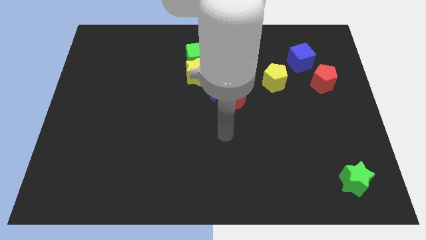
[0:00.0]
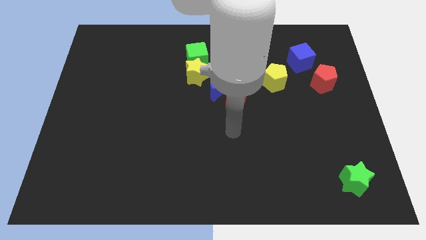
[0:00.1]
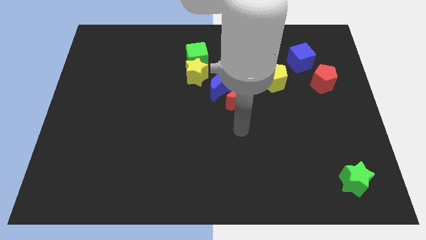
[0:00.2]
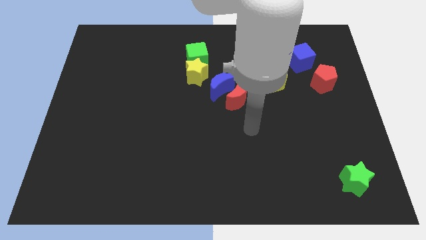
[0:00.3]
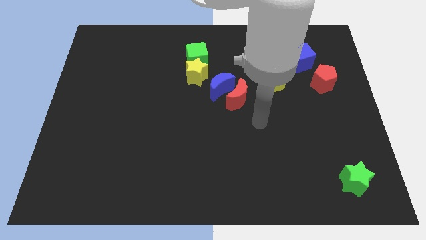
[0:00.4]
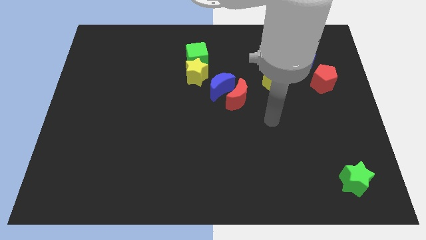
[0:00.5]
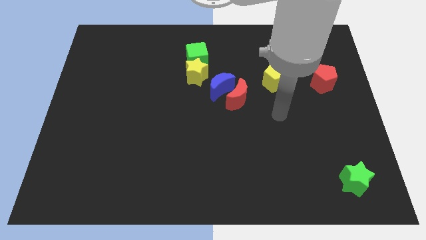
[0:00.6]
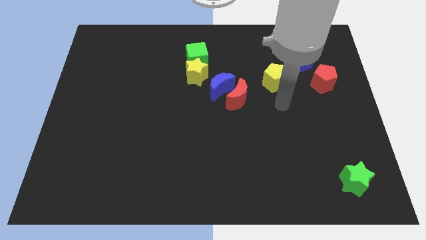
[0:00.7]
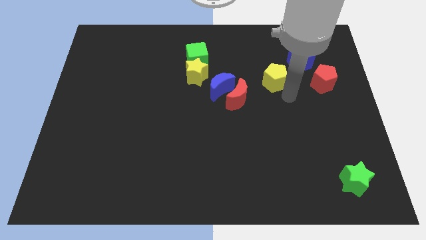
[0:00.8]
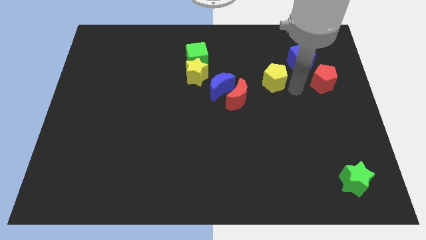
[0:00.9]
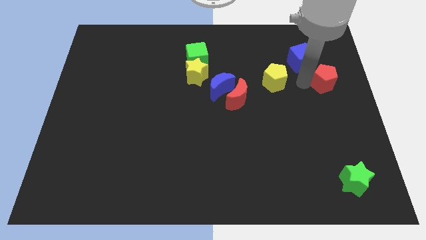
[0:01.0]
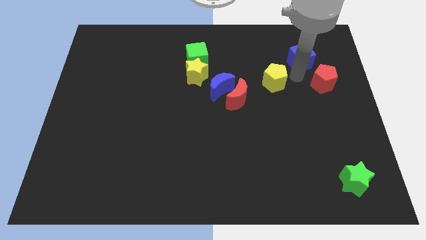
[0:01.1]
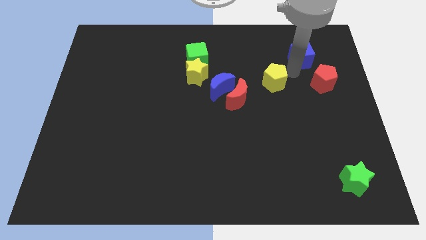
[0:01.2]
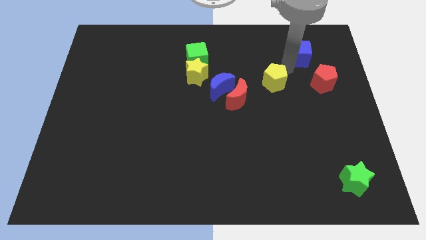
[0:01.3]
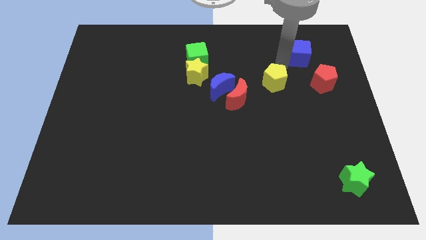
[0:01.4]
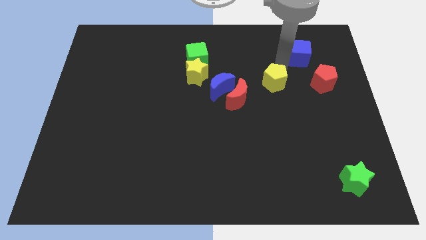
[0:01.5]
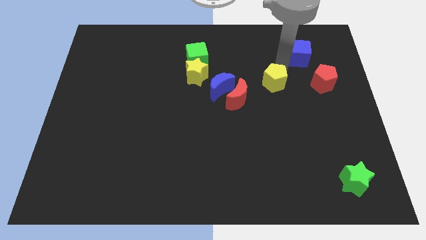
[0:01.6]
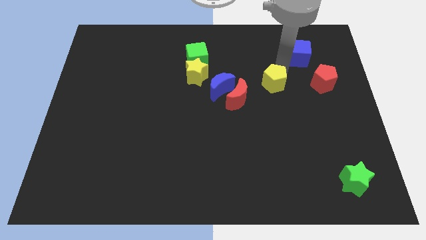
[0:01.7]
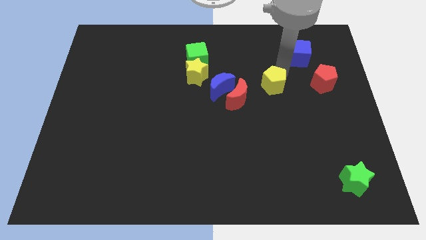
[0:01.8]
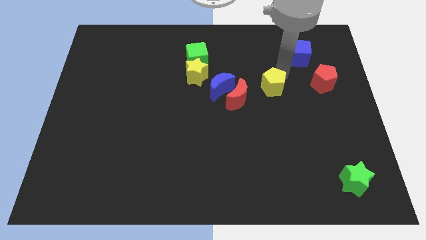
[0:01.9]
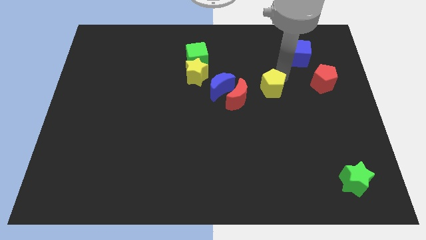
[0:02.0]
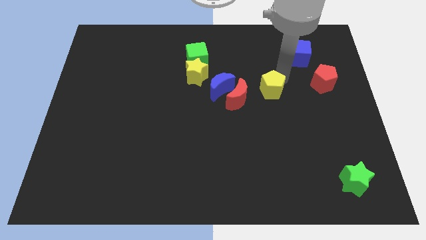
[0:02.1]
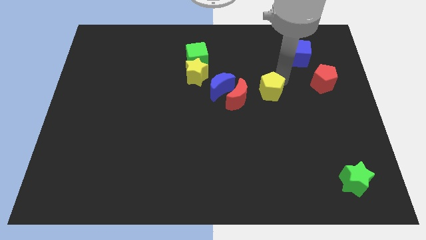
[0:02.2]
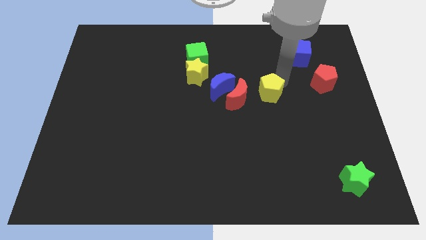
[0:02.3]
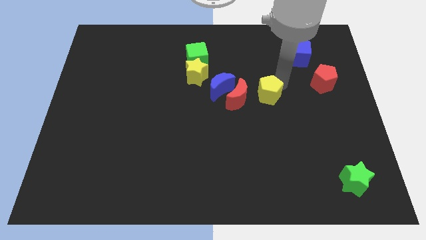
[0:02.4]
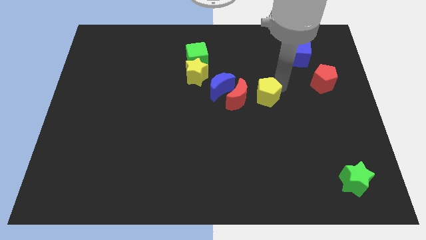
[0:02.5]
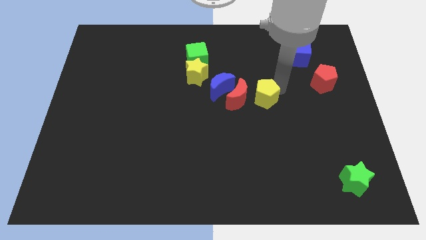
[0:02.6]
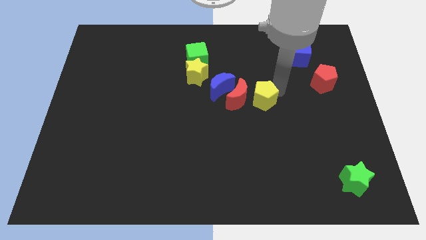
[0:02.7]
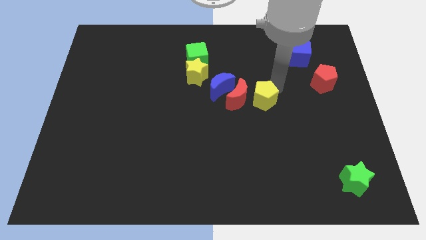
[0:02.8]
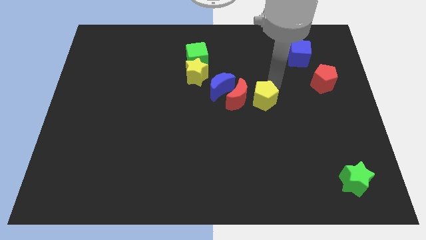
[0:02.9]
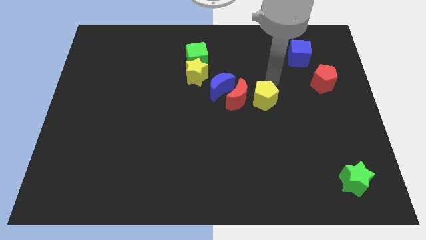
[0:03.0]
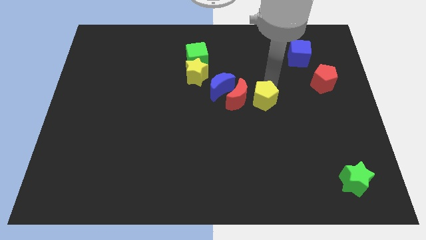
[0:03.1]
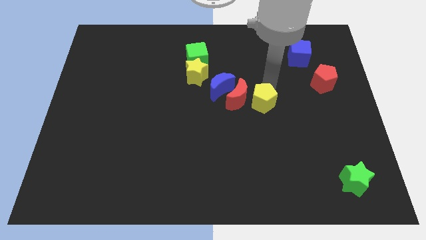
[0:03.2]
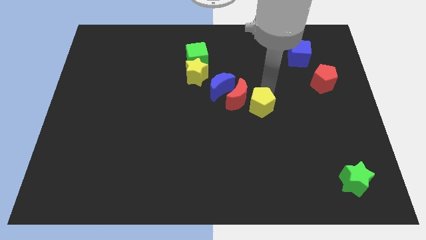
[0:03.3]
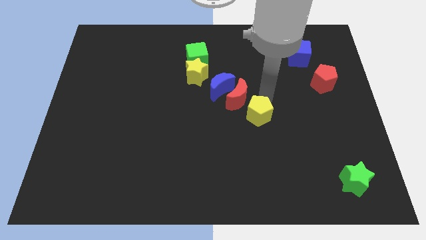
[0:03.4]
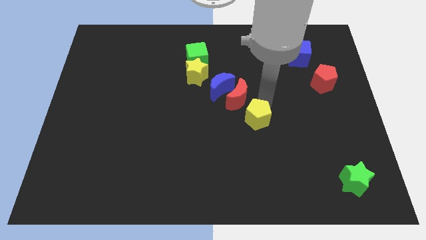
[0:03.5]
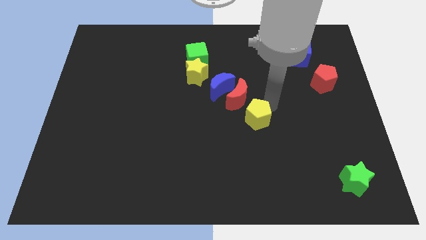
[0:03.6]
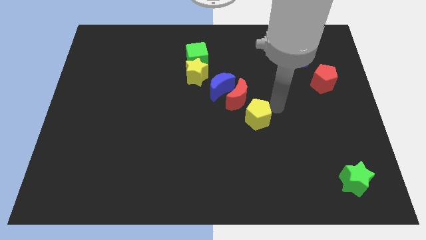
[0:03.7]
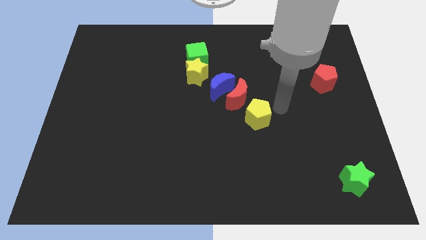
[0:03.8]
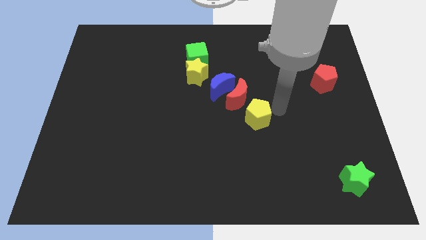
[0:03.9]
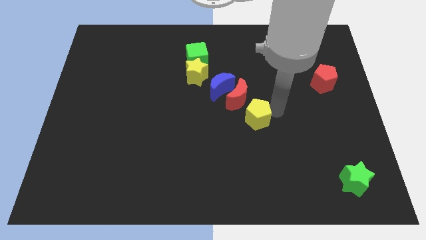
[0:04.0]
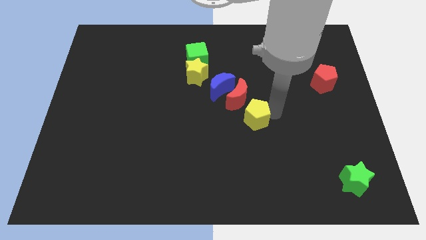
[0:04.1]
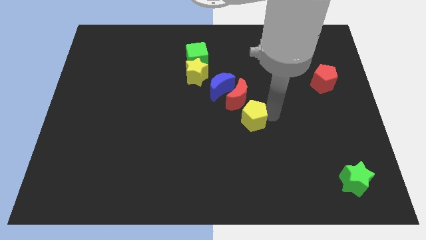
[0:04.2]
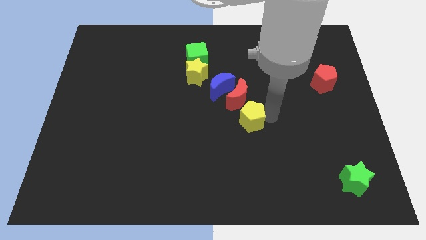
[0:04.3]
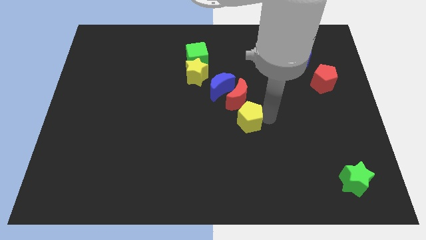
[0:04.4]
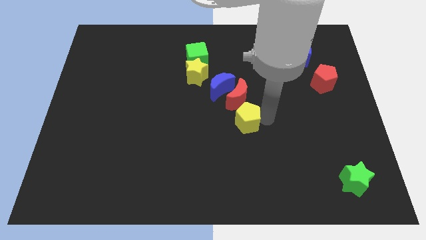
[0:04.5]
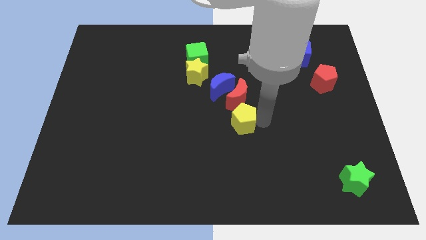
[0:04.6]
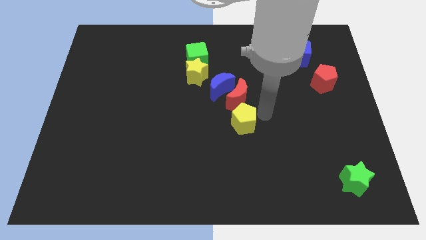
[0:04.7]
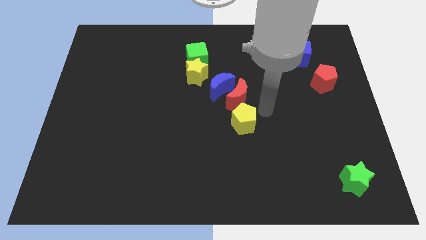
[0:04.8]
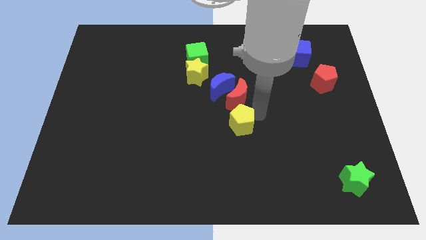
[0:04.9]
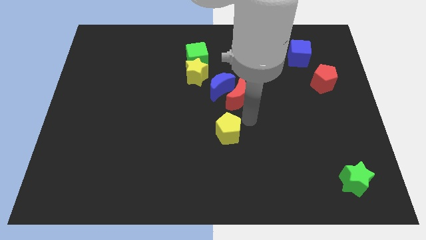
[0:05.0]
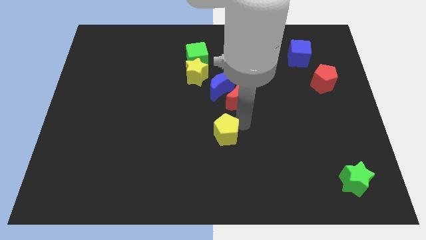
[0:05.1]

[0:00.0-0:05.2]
move the yellow pentagon downwards and left

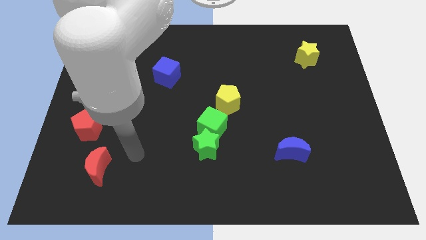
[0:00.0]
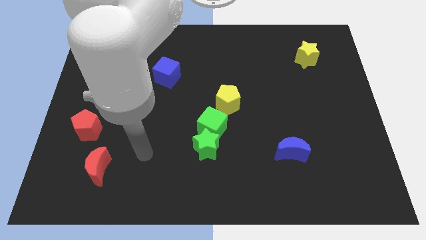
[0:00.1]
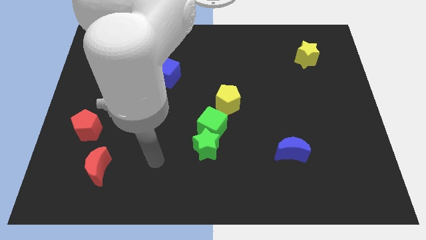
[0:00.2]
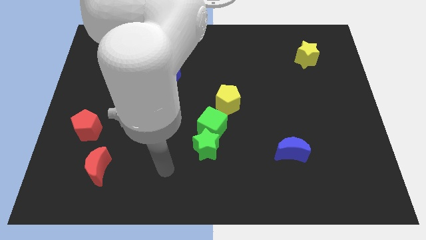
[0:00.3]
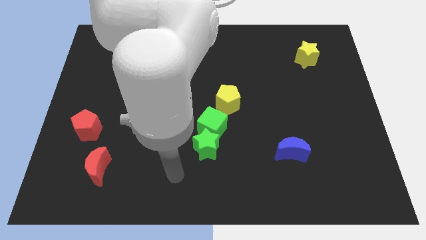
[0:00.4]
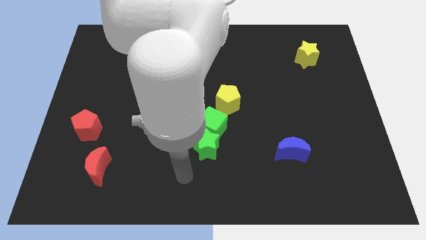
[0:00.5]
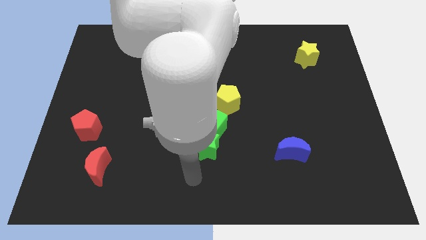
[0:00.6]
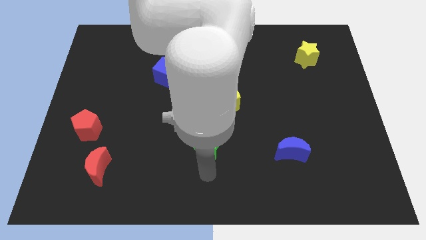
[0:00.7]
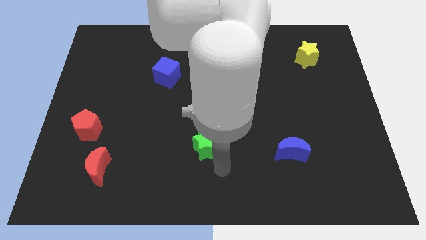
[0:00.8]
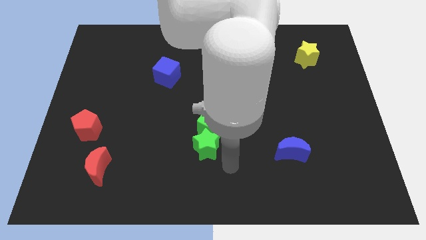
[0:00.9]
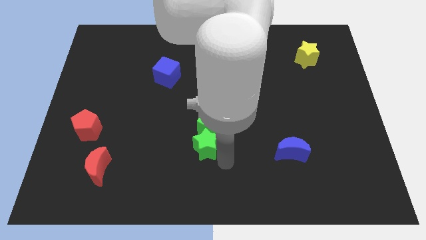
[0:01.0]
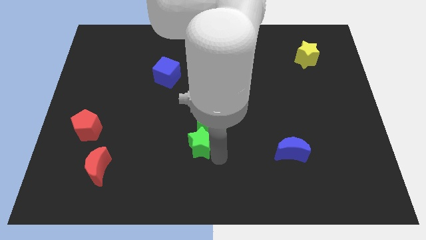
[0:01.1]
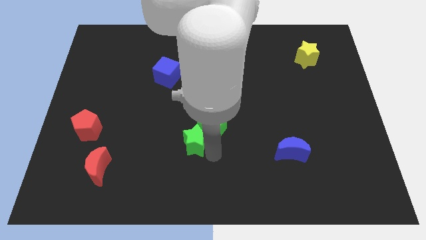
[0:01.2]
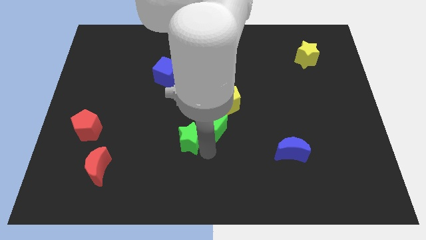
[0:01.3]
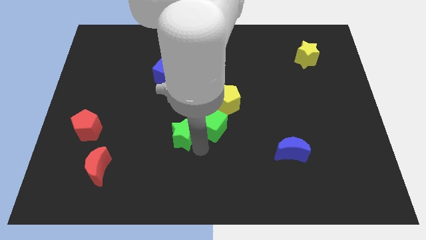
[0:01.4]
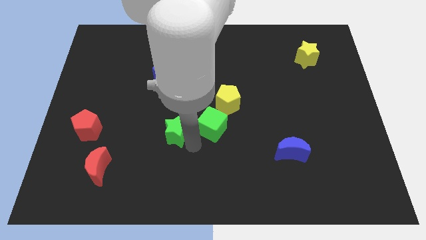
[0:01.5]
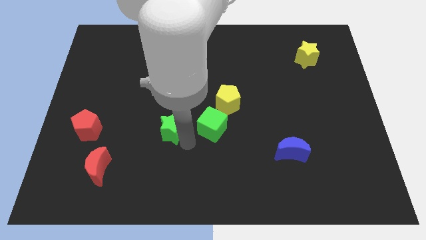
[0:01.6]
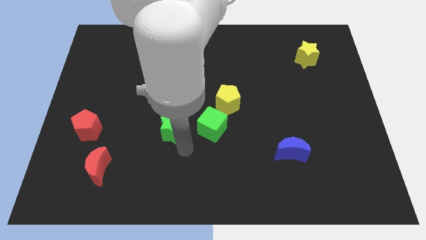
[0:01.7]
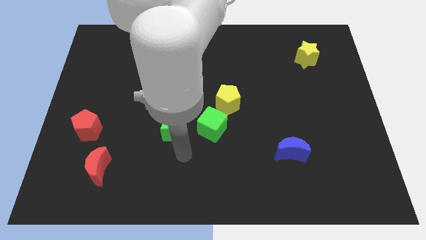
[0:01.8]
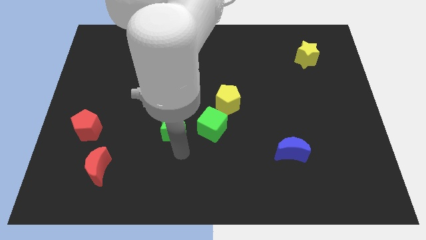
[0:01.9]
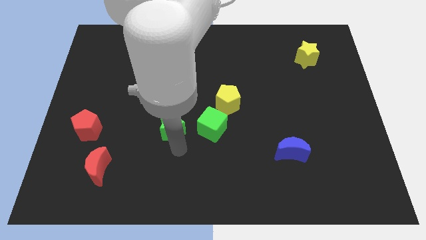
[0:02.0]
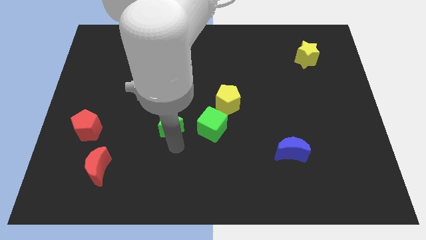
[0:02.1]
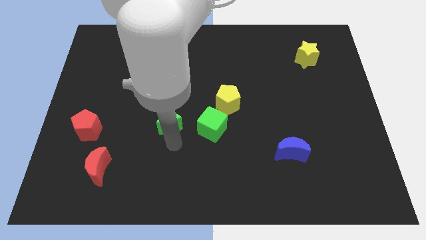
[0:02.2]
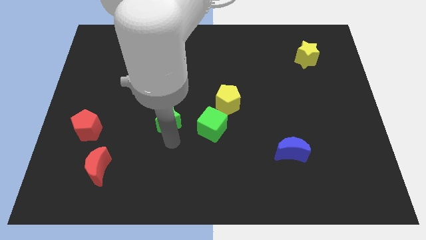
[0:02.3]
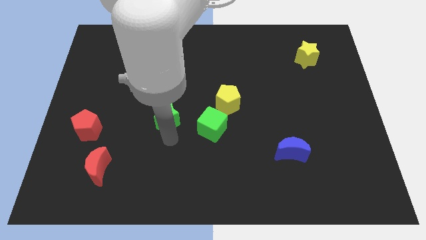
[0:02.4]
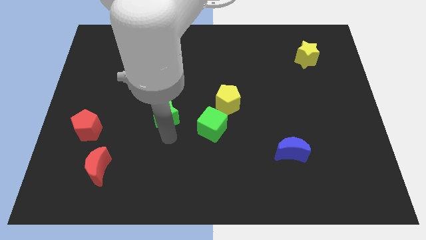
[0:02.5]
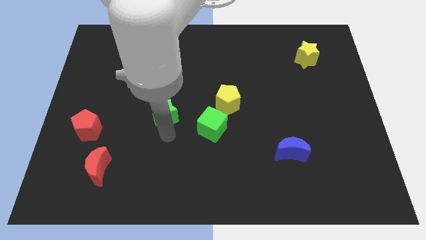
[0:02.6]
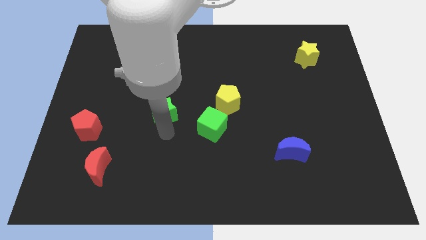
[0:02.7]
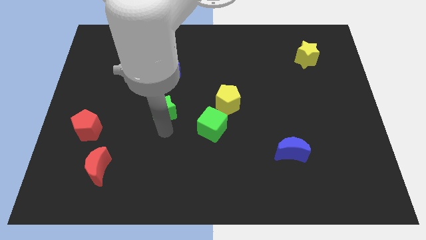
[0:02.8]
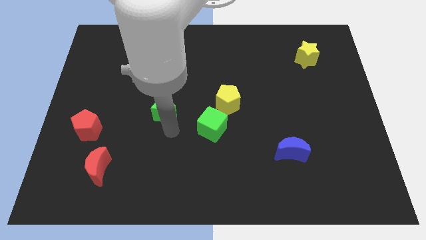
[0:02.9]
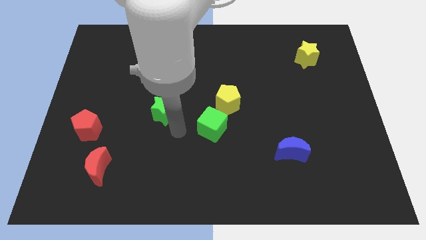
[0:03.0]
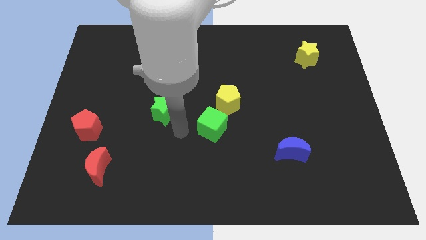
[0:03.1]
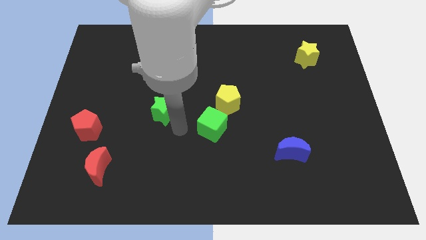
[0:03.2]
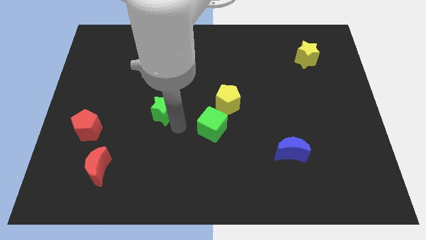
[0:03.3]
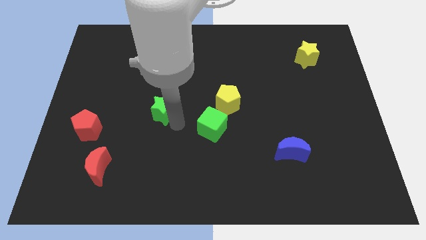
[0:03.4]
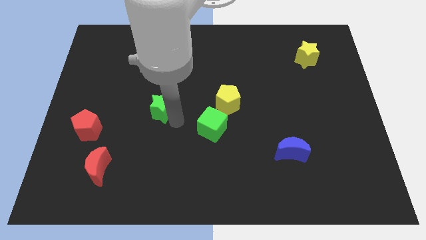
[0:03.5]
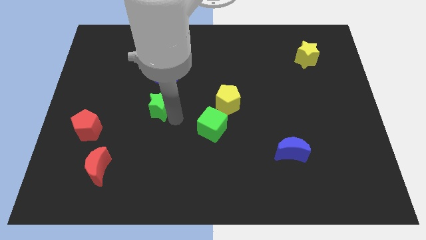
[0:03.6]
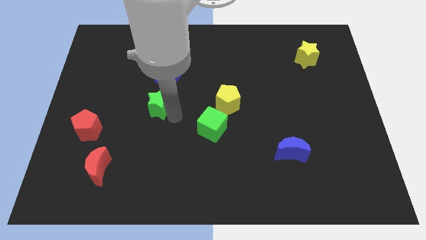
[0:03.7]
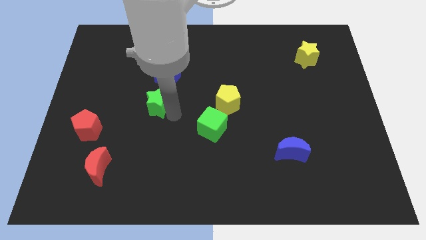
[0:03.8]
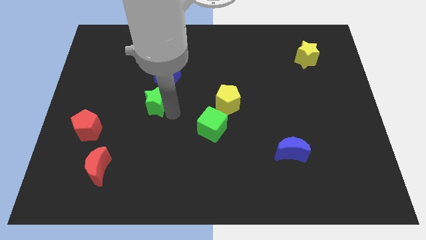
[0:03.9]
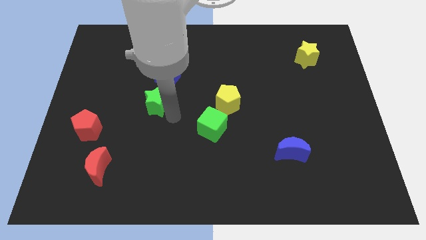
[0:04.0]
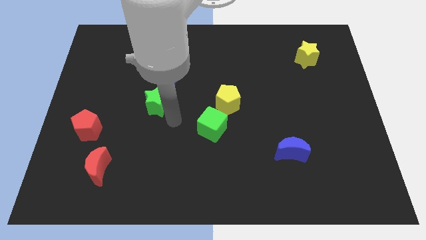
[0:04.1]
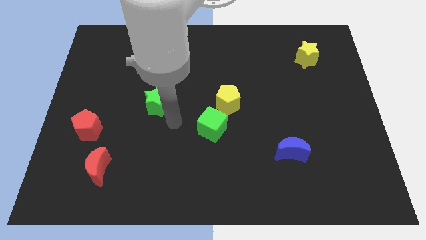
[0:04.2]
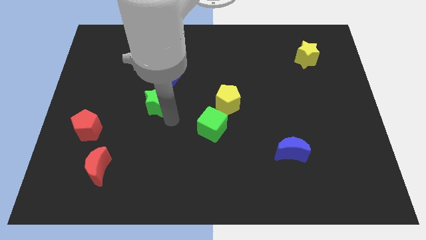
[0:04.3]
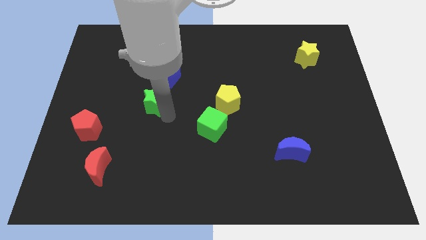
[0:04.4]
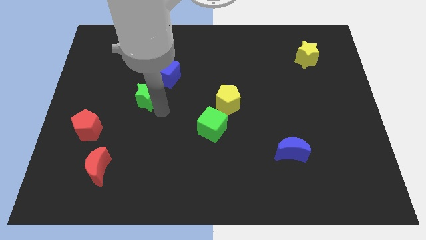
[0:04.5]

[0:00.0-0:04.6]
push the green star upwards and to the left diagonally
